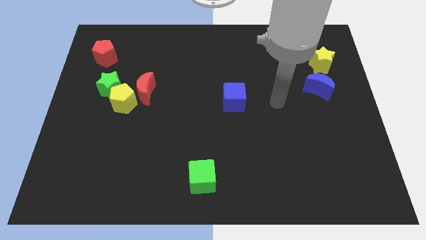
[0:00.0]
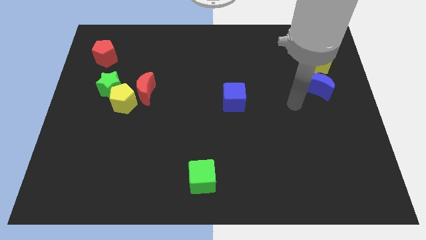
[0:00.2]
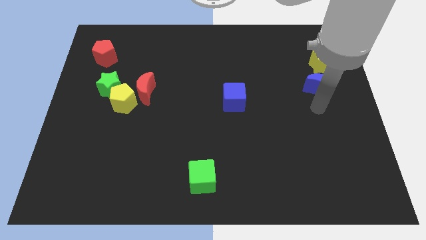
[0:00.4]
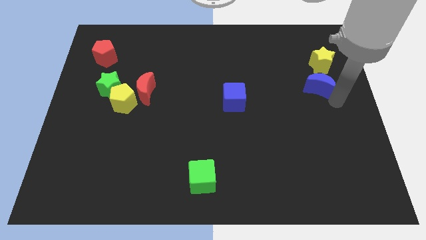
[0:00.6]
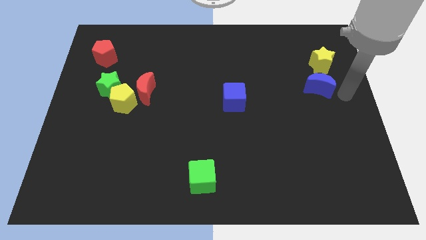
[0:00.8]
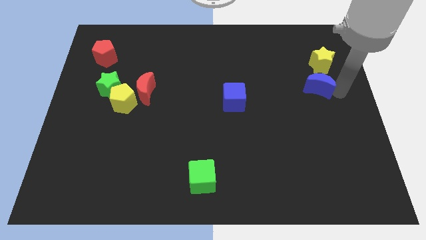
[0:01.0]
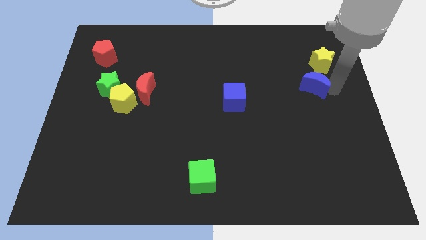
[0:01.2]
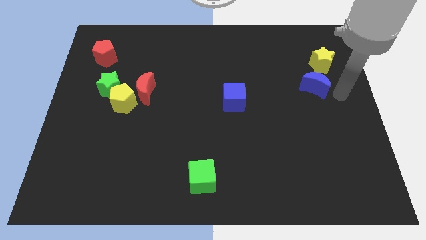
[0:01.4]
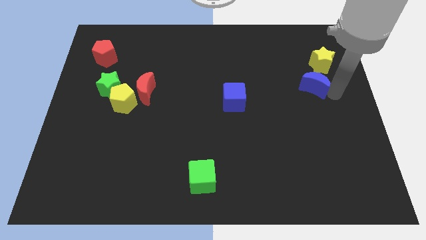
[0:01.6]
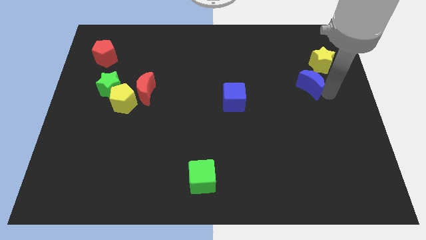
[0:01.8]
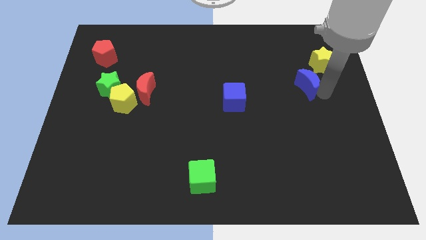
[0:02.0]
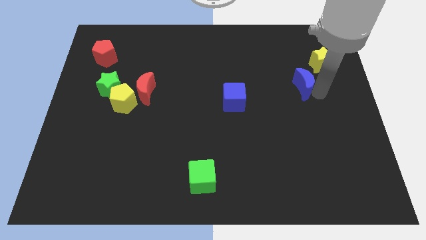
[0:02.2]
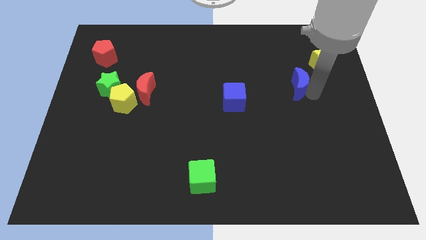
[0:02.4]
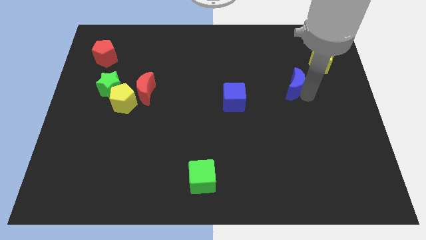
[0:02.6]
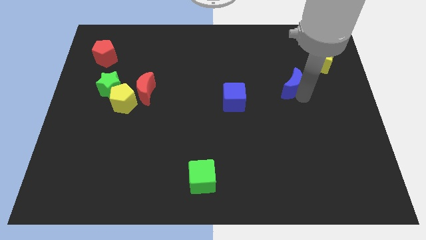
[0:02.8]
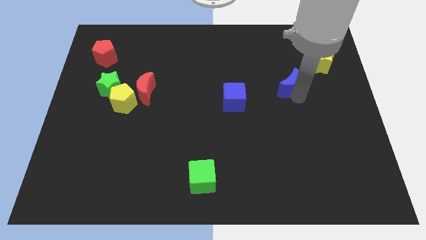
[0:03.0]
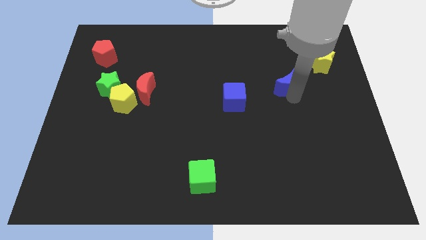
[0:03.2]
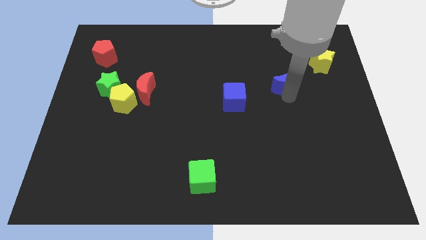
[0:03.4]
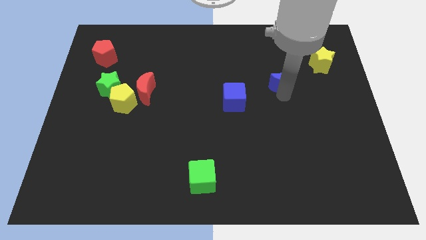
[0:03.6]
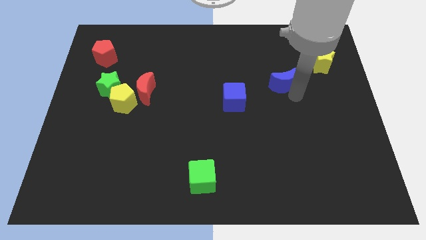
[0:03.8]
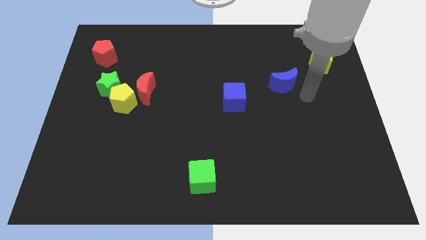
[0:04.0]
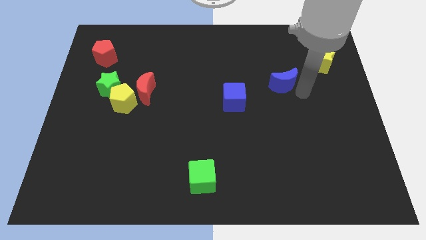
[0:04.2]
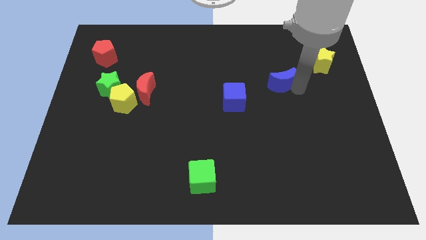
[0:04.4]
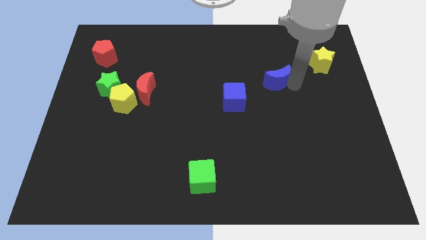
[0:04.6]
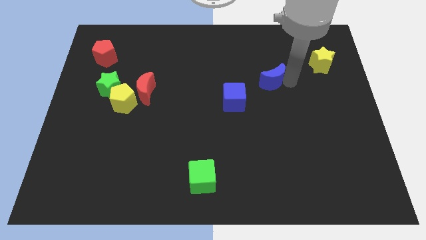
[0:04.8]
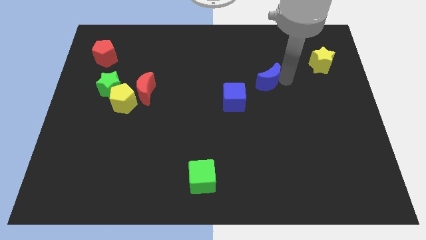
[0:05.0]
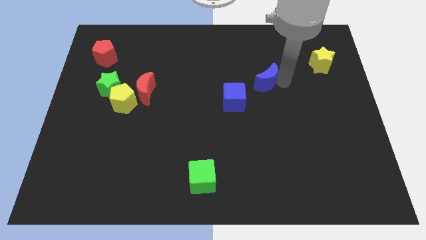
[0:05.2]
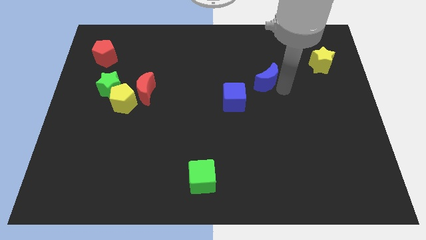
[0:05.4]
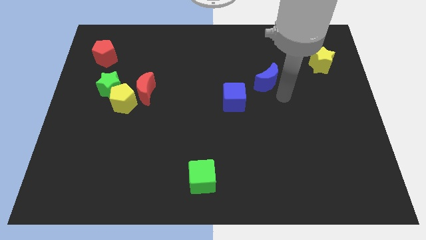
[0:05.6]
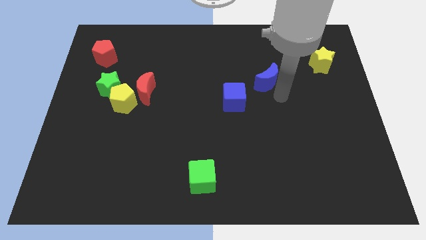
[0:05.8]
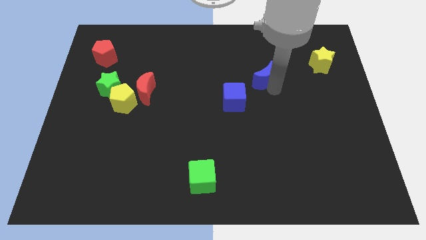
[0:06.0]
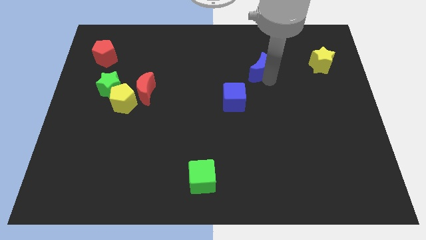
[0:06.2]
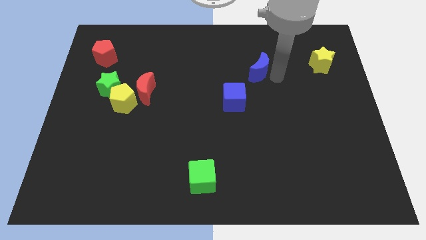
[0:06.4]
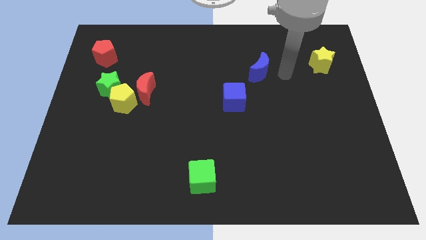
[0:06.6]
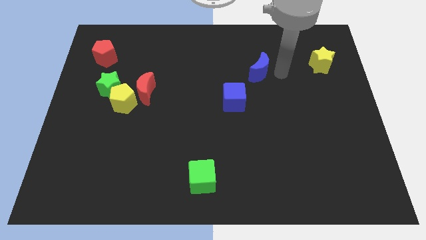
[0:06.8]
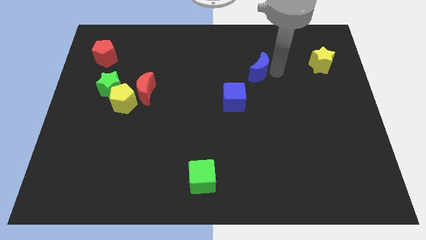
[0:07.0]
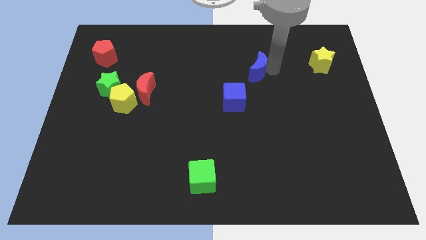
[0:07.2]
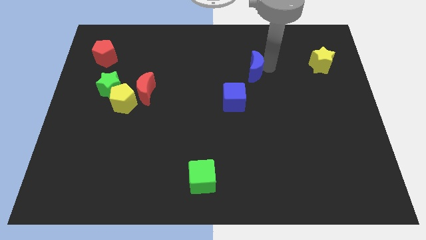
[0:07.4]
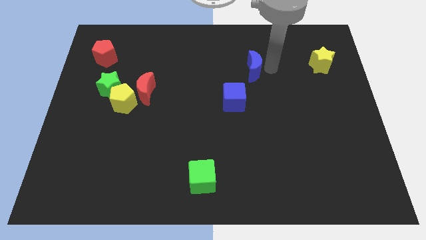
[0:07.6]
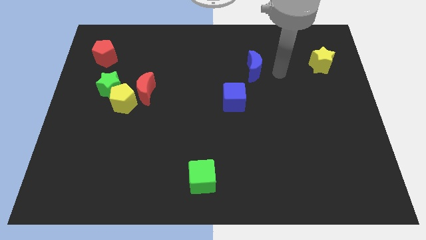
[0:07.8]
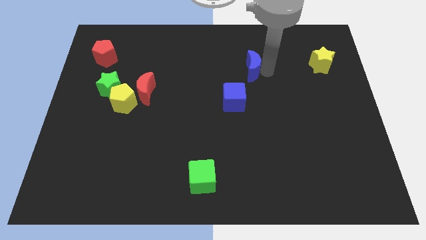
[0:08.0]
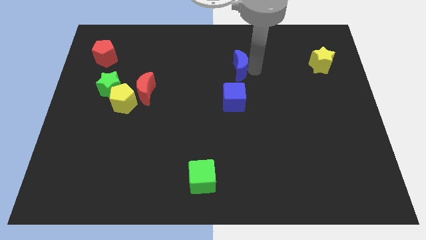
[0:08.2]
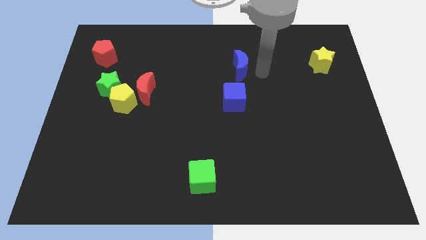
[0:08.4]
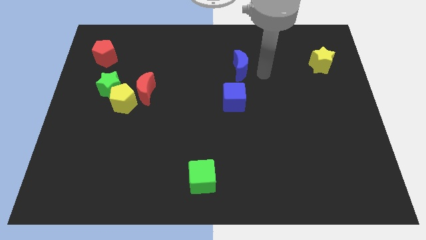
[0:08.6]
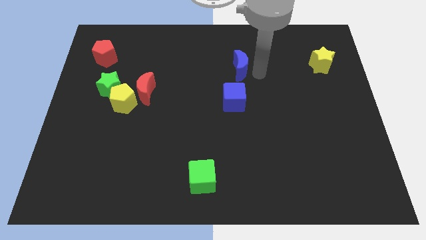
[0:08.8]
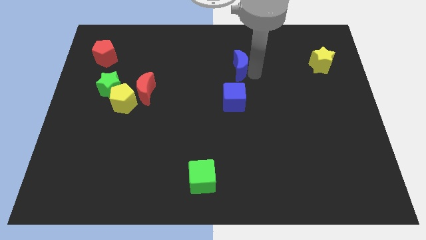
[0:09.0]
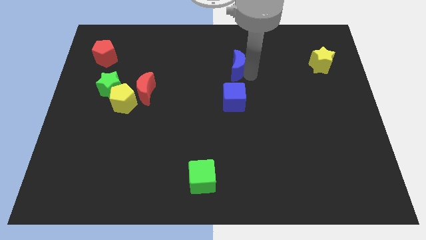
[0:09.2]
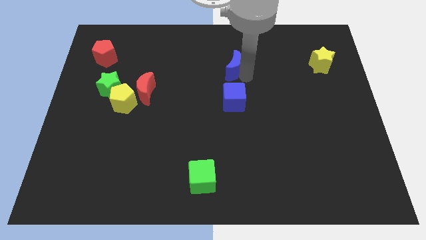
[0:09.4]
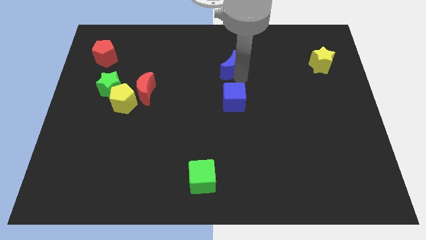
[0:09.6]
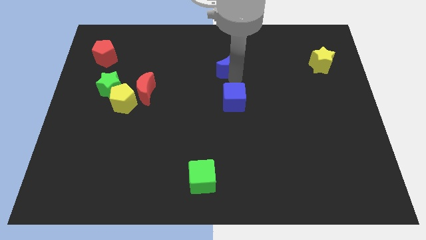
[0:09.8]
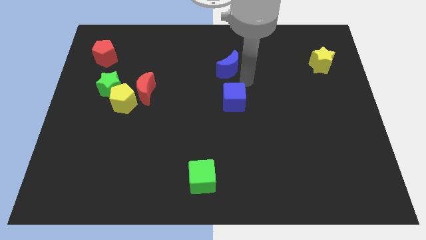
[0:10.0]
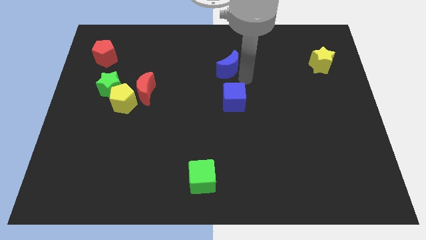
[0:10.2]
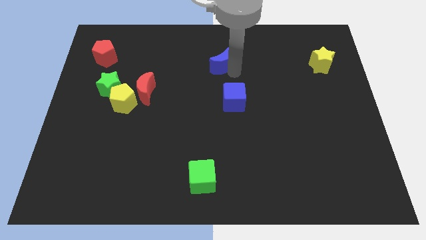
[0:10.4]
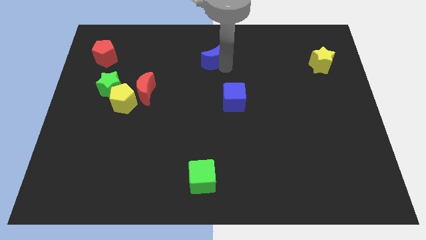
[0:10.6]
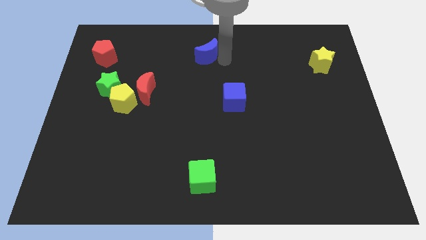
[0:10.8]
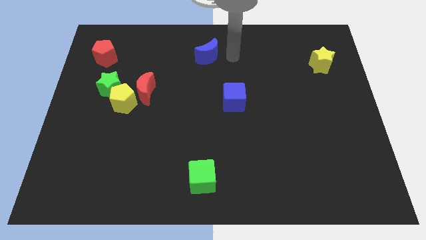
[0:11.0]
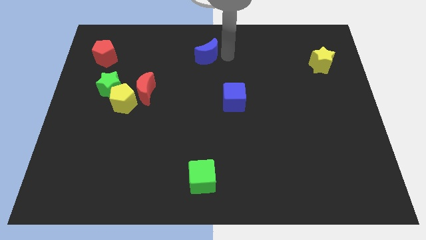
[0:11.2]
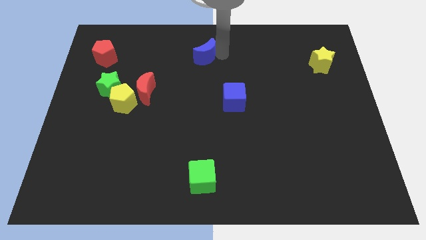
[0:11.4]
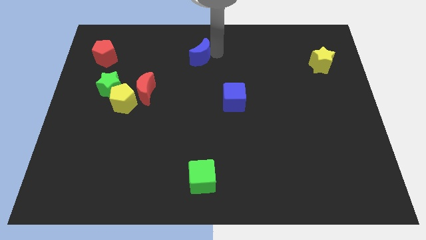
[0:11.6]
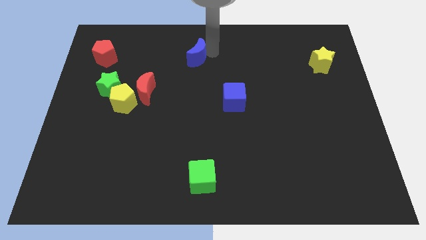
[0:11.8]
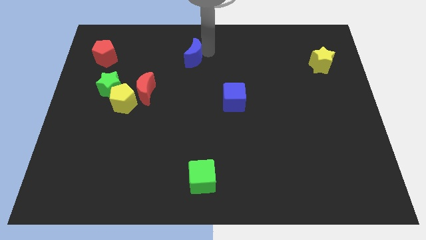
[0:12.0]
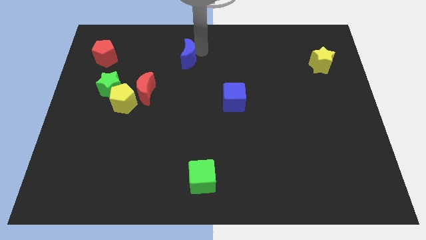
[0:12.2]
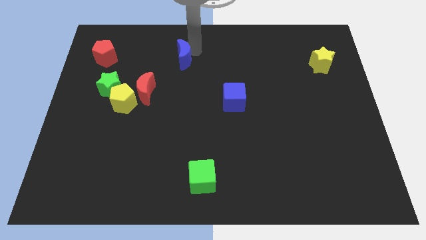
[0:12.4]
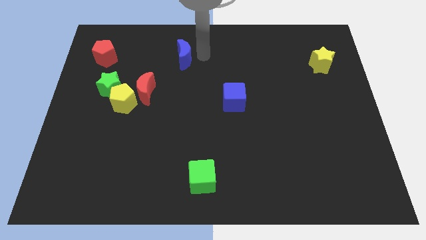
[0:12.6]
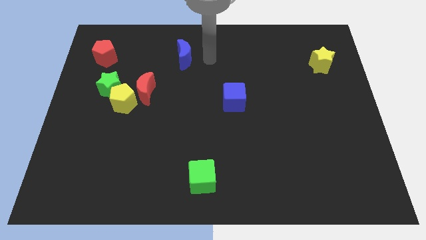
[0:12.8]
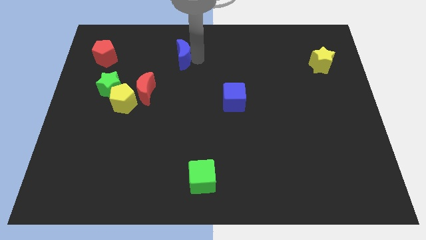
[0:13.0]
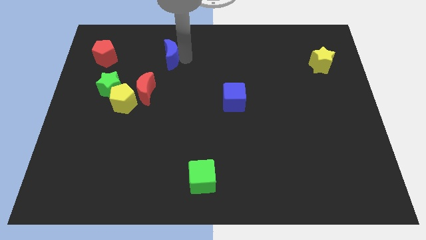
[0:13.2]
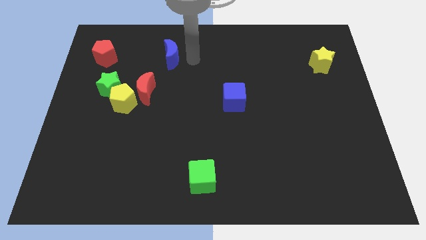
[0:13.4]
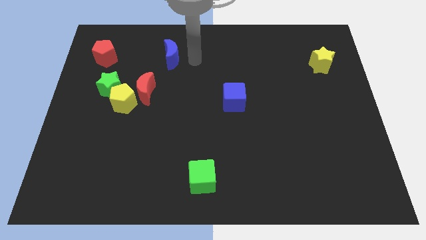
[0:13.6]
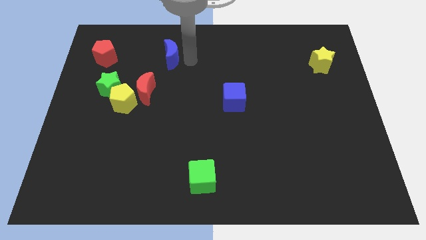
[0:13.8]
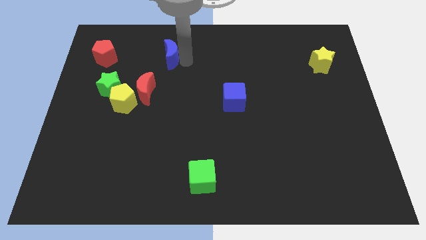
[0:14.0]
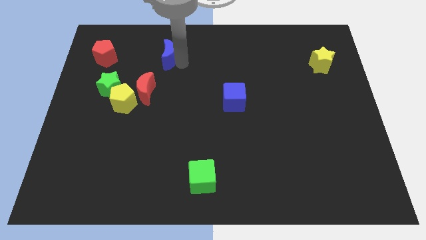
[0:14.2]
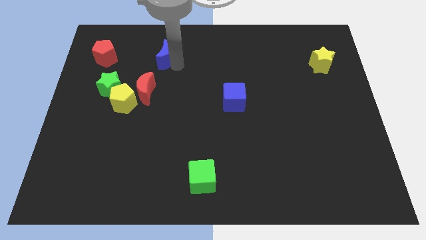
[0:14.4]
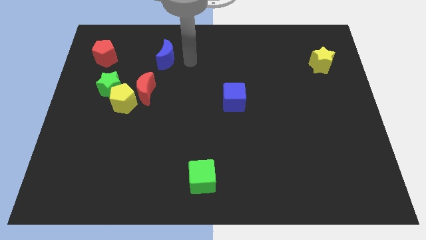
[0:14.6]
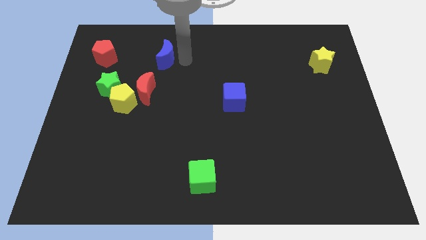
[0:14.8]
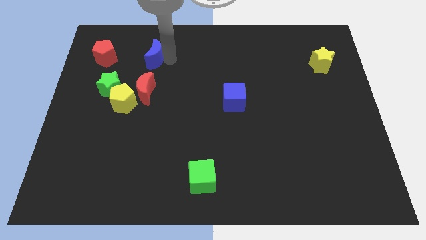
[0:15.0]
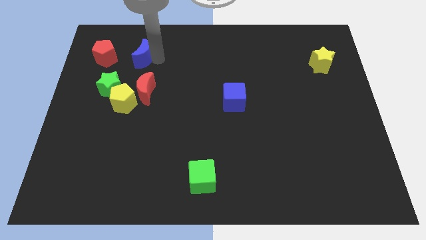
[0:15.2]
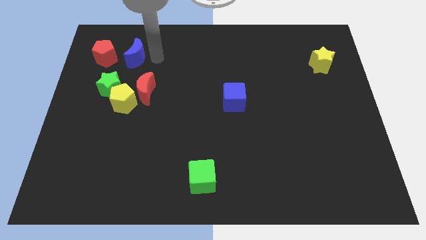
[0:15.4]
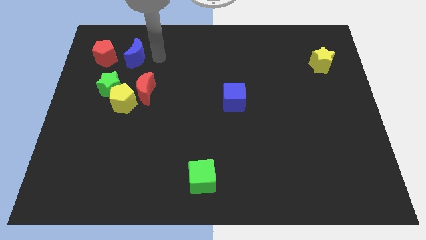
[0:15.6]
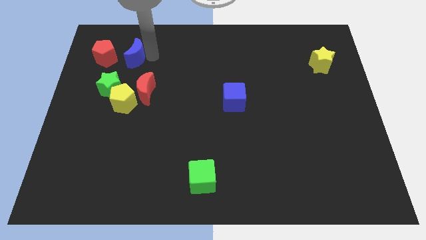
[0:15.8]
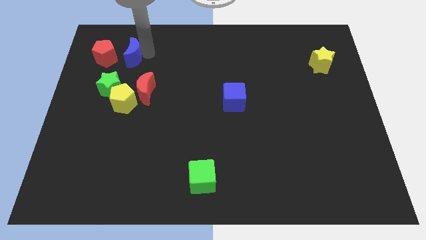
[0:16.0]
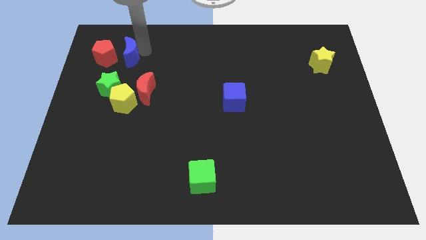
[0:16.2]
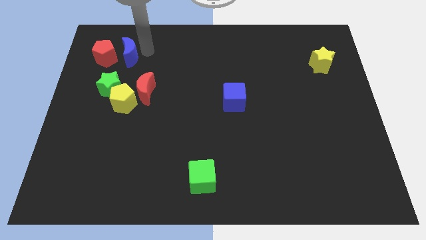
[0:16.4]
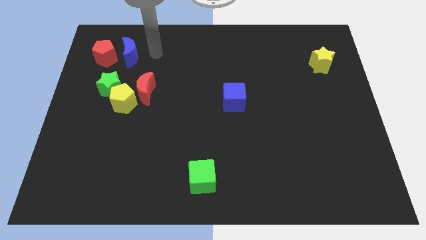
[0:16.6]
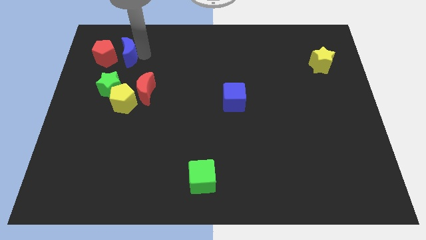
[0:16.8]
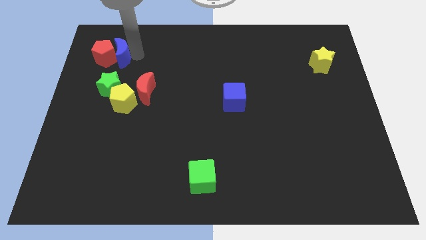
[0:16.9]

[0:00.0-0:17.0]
push the blue moon close to the red pentagon
